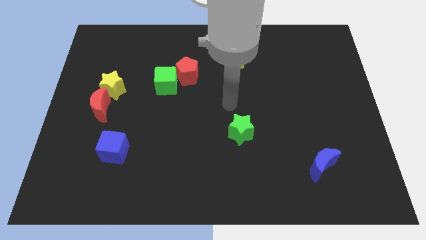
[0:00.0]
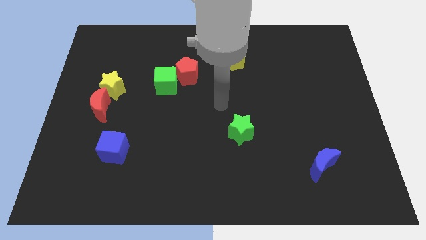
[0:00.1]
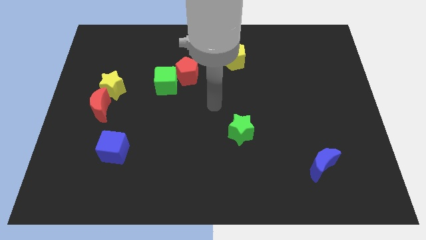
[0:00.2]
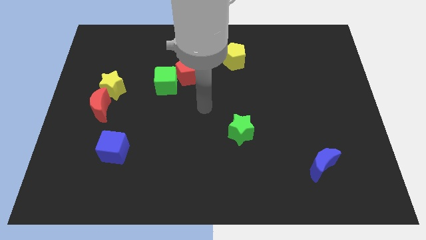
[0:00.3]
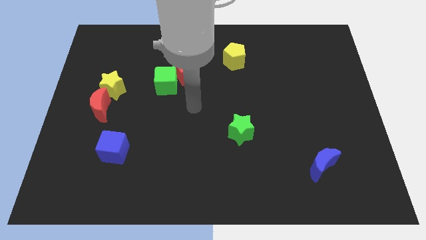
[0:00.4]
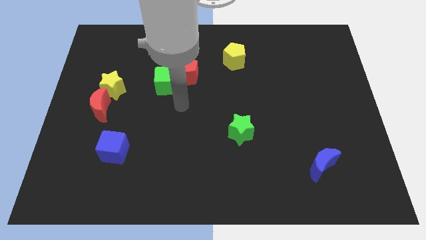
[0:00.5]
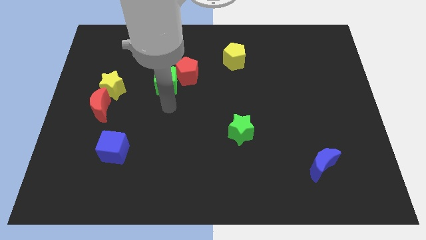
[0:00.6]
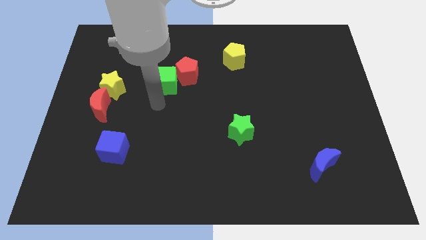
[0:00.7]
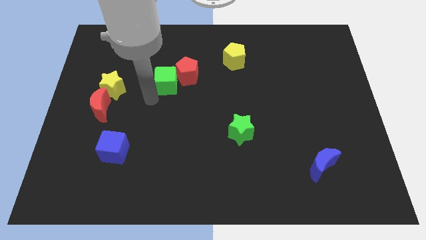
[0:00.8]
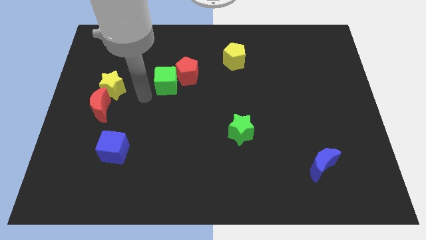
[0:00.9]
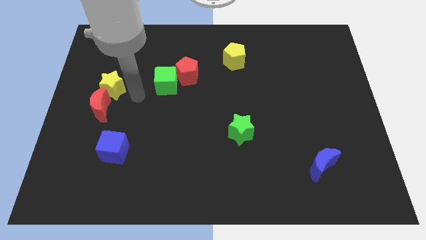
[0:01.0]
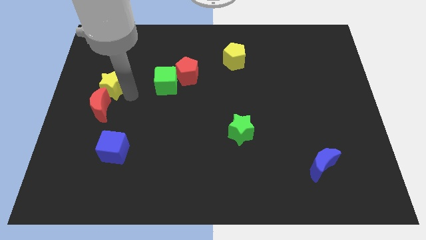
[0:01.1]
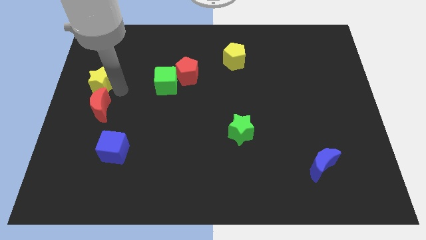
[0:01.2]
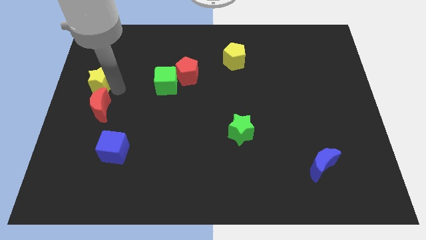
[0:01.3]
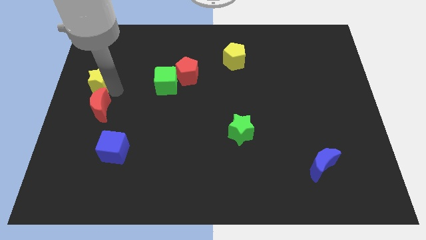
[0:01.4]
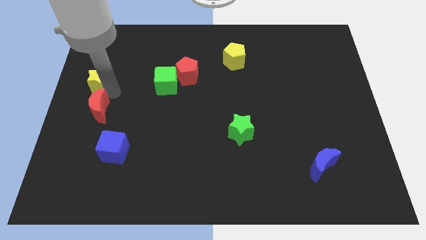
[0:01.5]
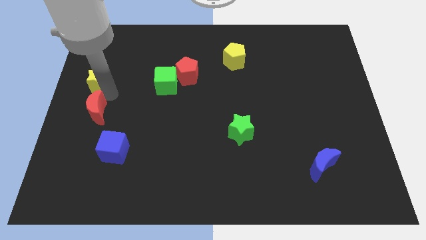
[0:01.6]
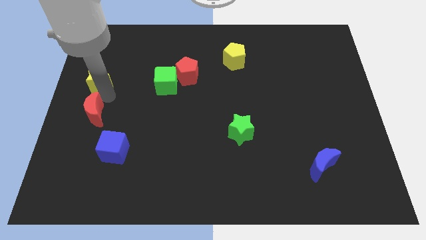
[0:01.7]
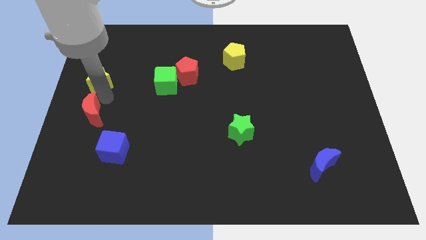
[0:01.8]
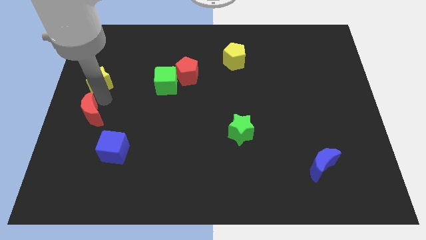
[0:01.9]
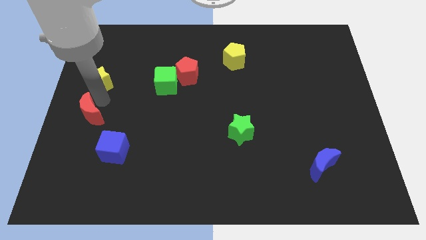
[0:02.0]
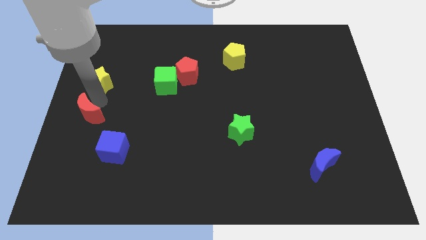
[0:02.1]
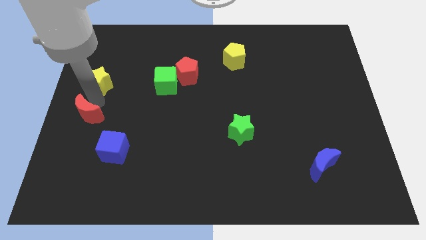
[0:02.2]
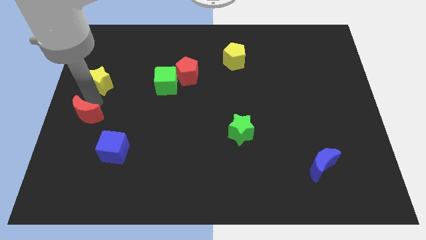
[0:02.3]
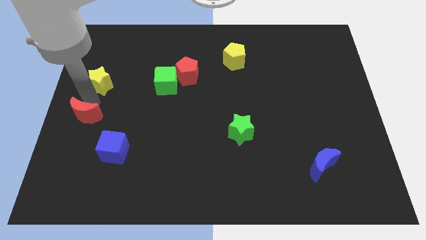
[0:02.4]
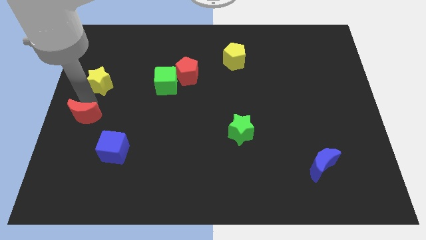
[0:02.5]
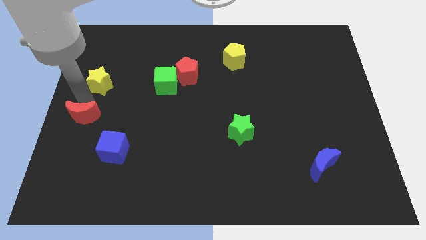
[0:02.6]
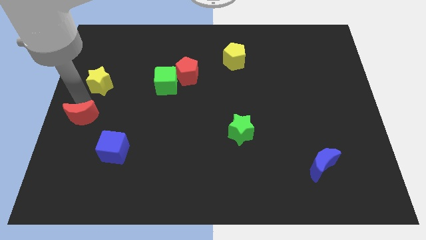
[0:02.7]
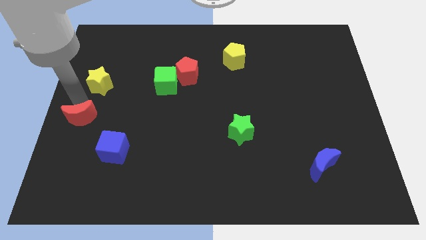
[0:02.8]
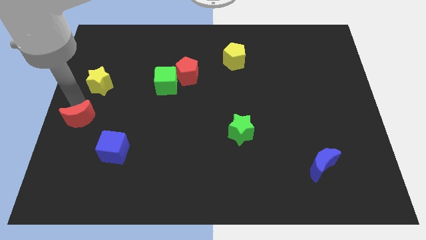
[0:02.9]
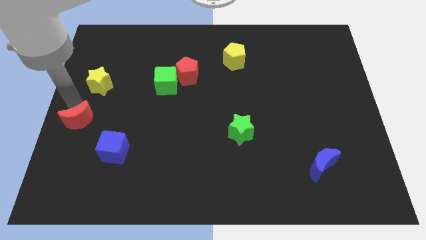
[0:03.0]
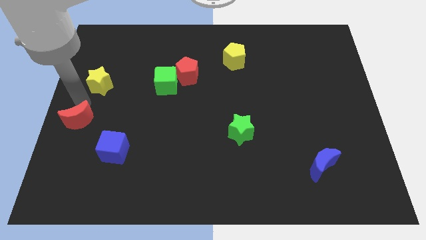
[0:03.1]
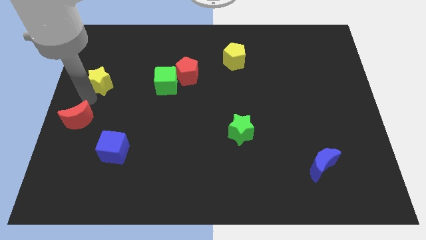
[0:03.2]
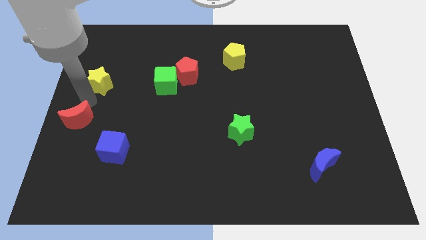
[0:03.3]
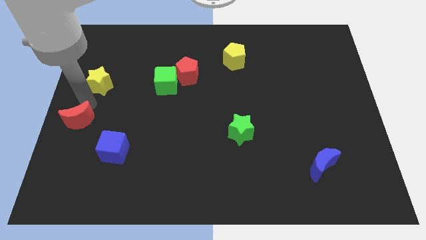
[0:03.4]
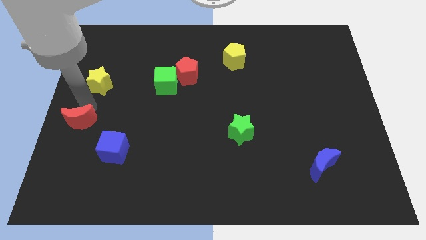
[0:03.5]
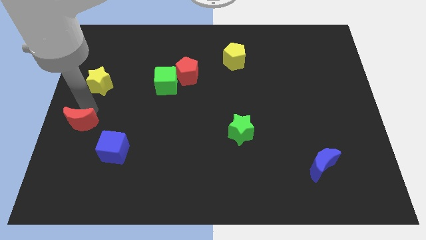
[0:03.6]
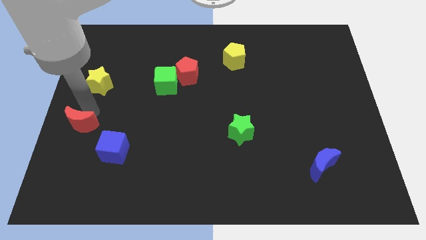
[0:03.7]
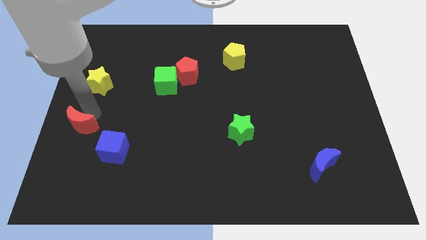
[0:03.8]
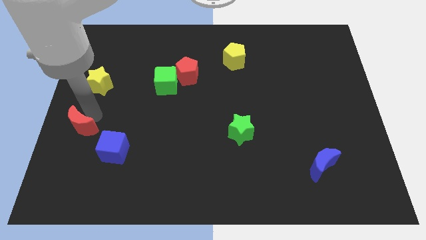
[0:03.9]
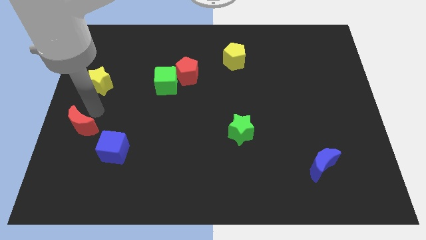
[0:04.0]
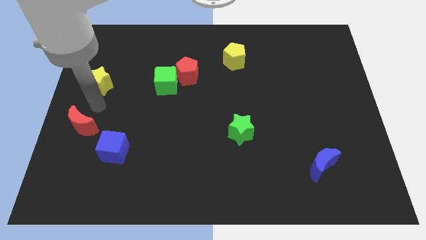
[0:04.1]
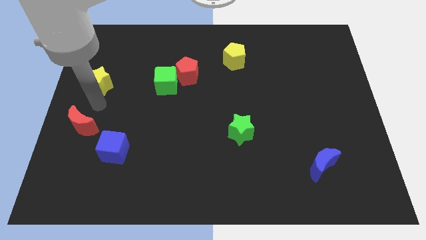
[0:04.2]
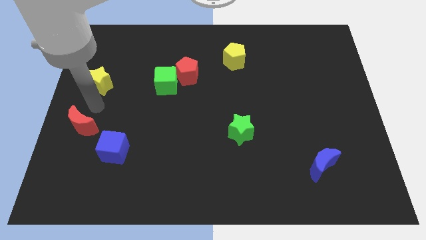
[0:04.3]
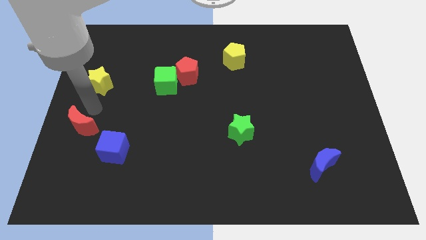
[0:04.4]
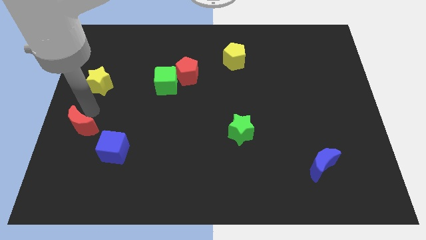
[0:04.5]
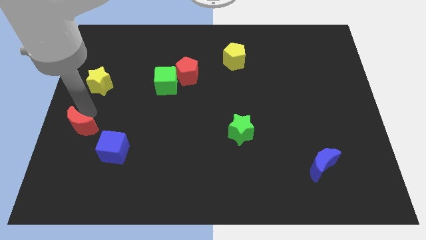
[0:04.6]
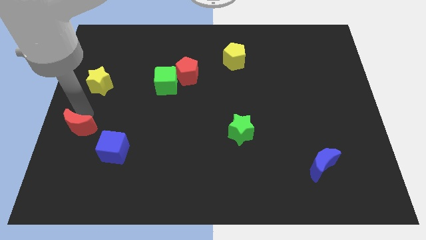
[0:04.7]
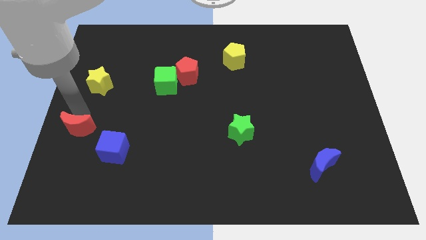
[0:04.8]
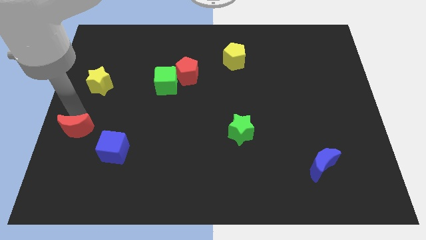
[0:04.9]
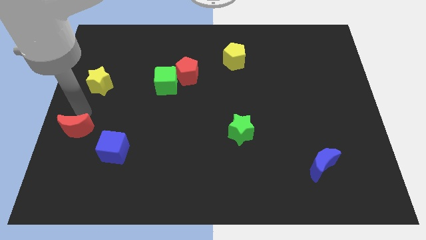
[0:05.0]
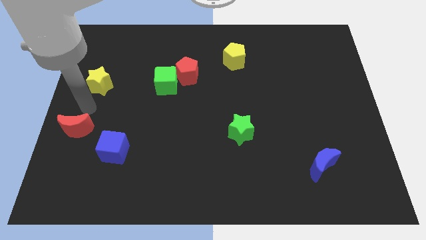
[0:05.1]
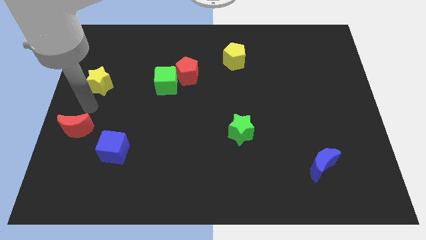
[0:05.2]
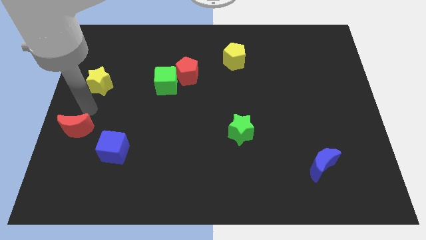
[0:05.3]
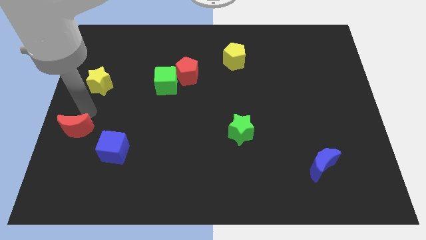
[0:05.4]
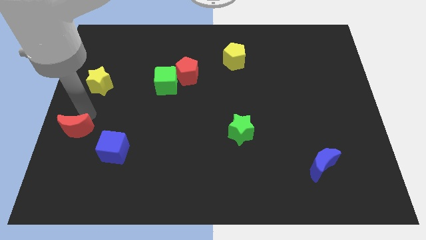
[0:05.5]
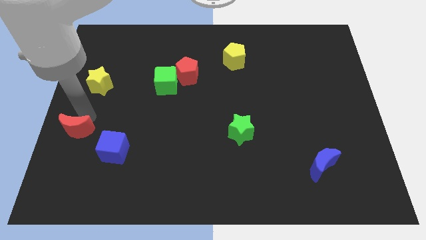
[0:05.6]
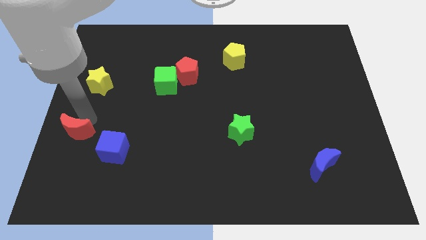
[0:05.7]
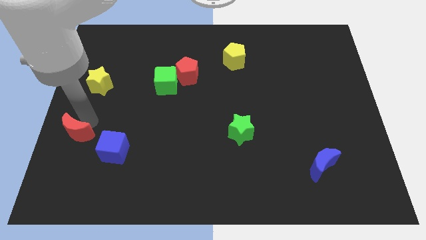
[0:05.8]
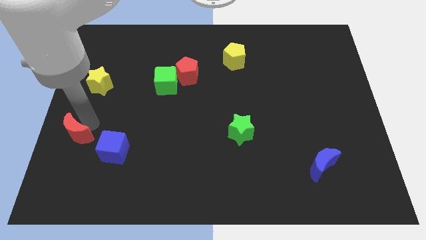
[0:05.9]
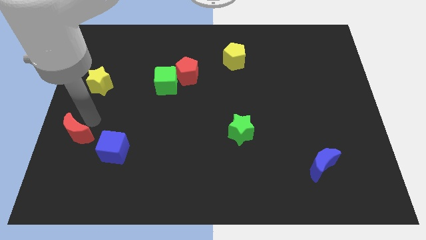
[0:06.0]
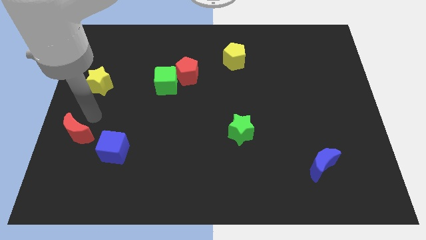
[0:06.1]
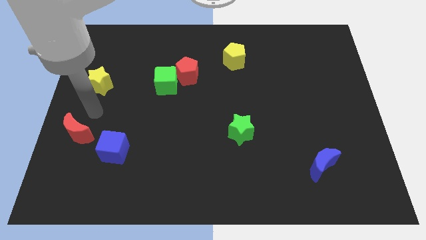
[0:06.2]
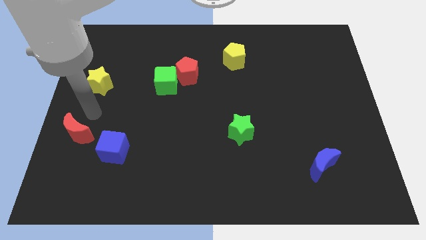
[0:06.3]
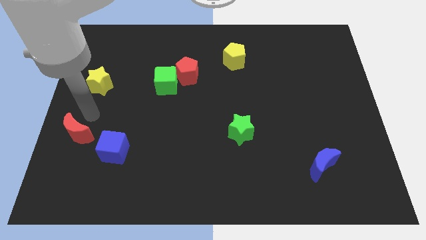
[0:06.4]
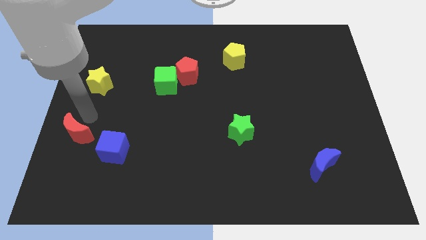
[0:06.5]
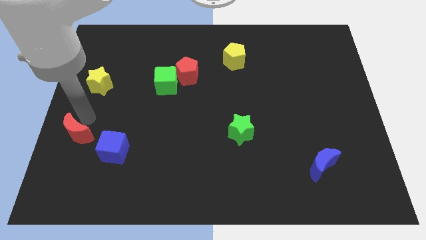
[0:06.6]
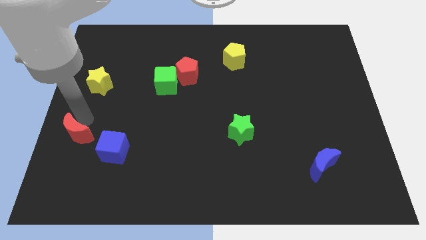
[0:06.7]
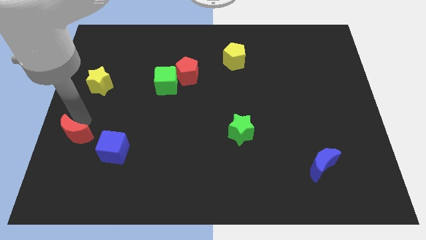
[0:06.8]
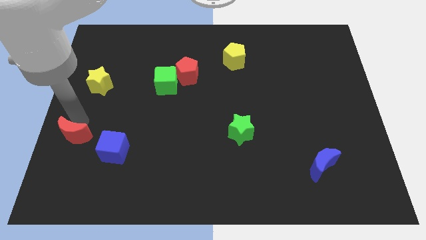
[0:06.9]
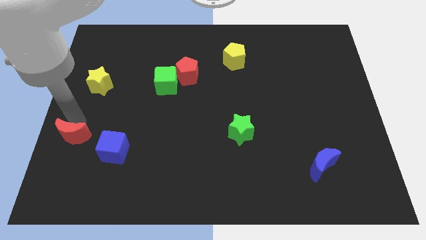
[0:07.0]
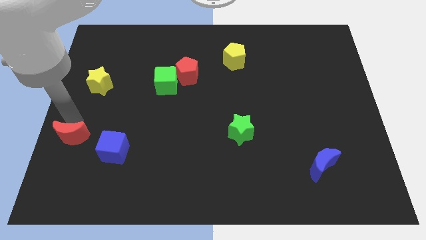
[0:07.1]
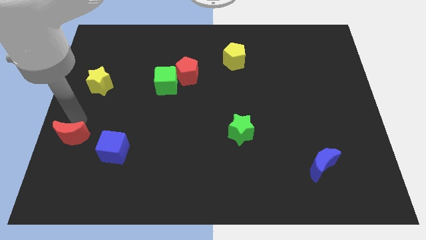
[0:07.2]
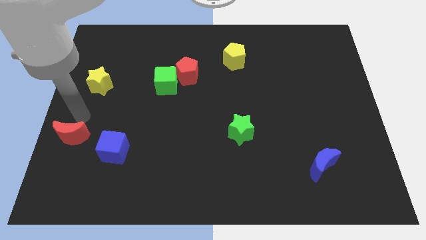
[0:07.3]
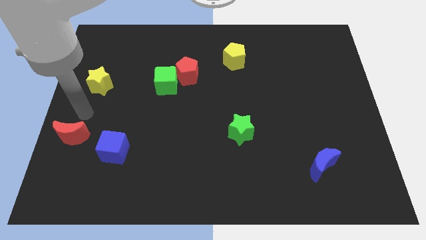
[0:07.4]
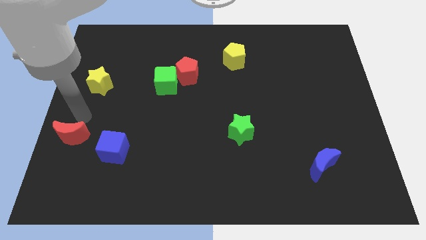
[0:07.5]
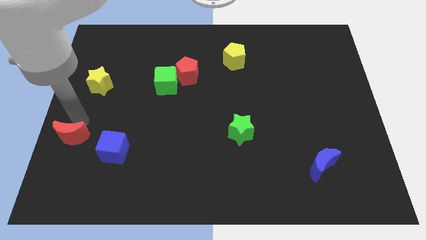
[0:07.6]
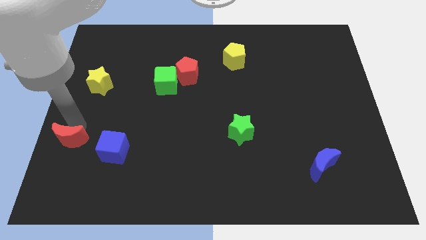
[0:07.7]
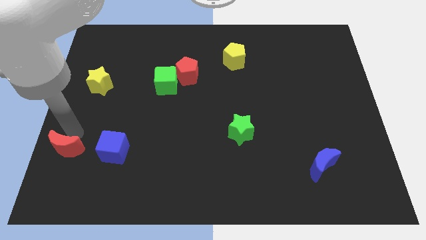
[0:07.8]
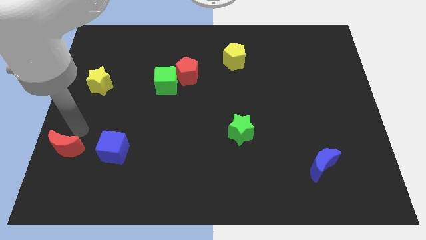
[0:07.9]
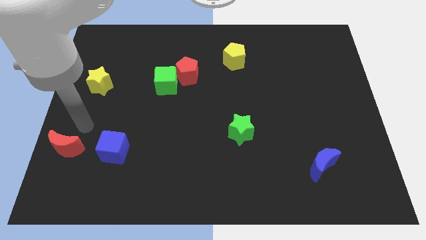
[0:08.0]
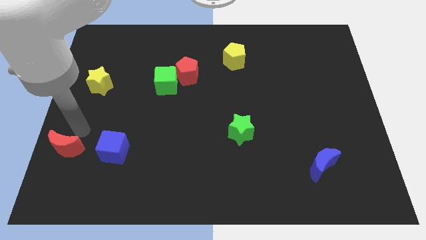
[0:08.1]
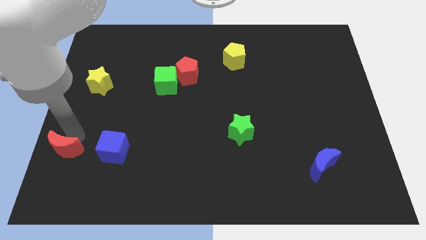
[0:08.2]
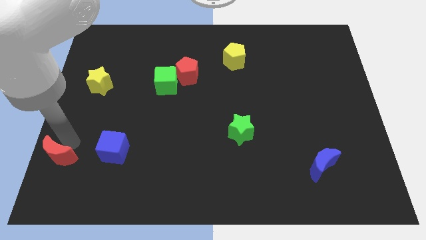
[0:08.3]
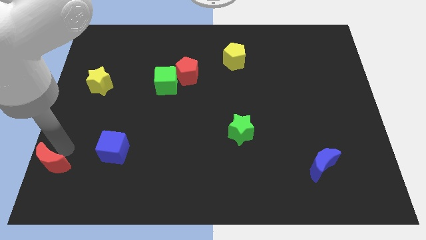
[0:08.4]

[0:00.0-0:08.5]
push the red moon to the bottom left corner
